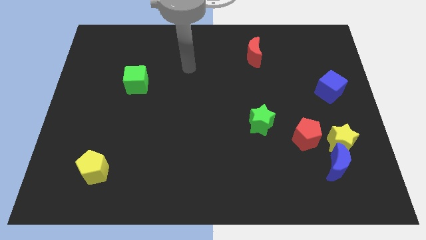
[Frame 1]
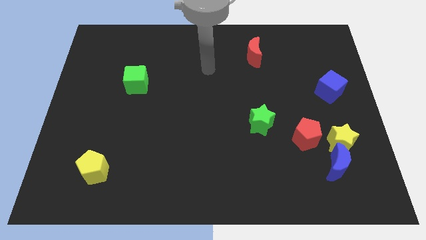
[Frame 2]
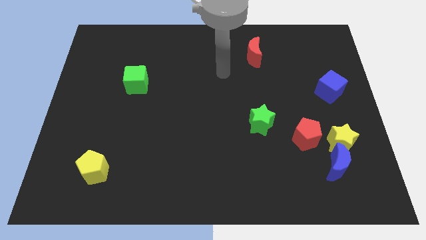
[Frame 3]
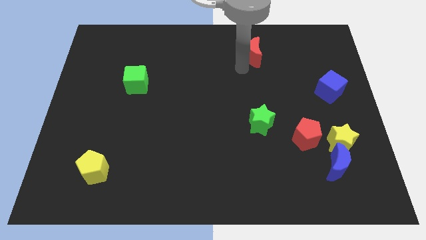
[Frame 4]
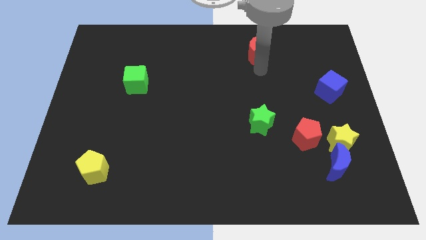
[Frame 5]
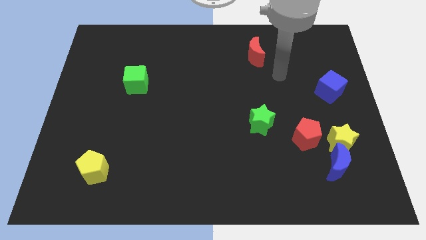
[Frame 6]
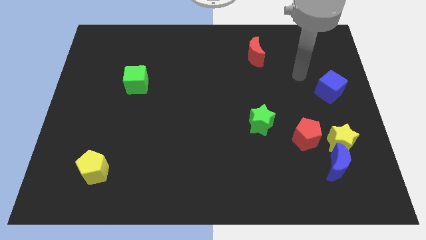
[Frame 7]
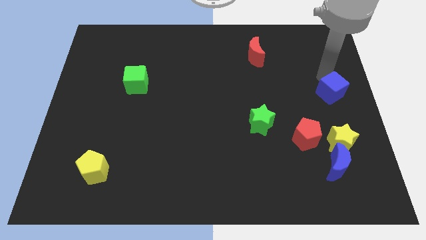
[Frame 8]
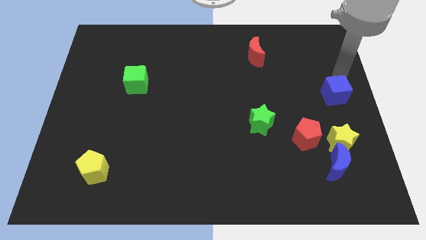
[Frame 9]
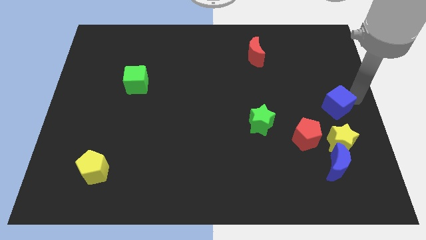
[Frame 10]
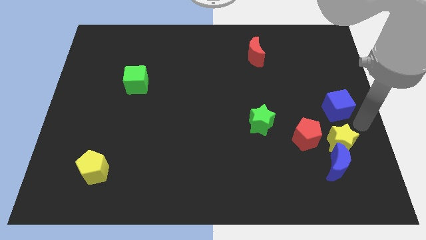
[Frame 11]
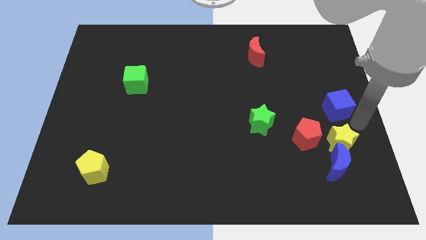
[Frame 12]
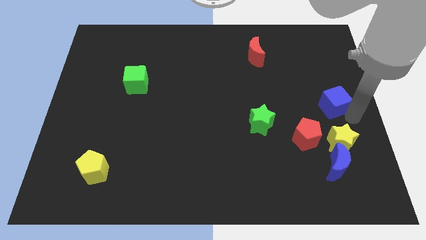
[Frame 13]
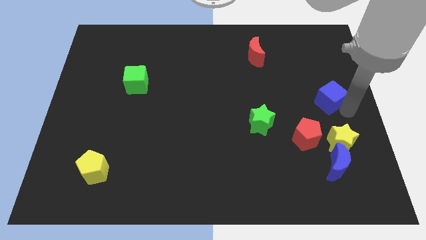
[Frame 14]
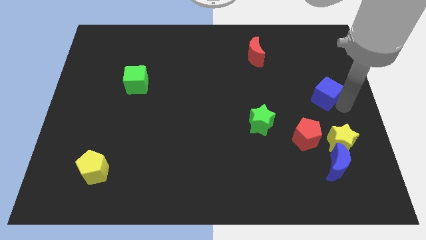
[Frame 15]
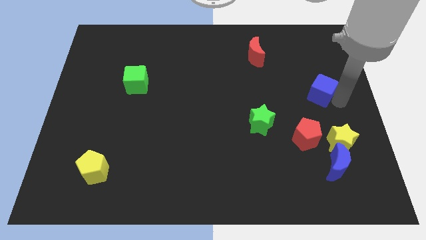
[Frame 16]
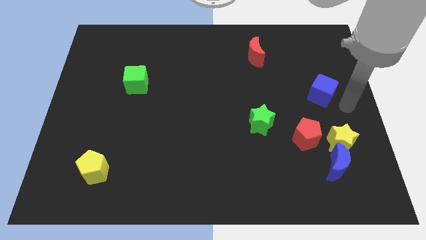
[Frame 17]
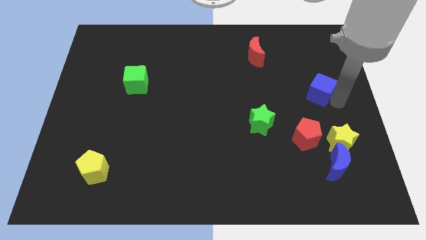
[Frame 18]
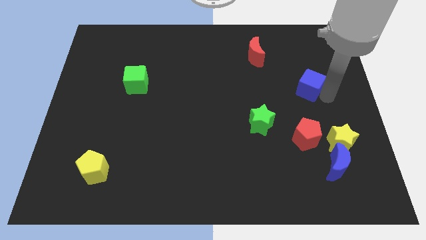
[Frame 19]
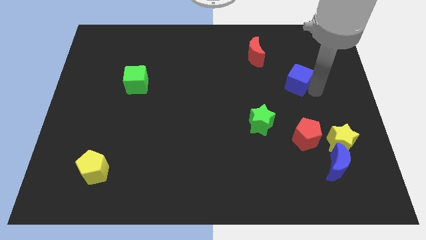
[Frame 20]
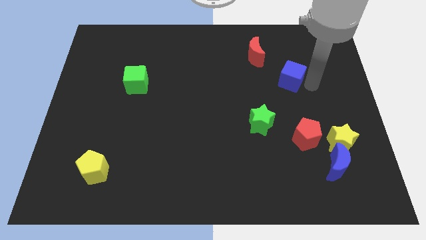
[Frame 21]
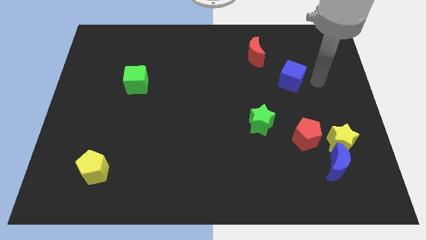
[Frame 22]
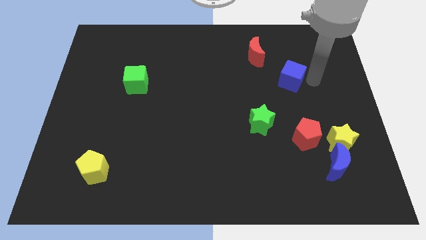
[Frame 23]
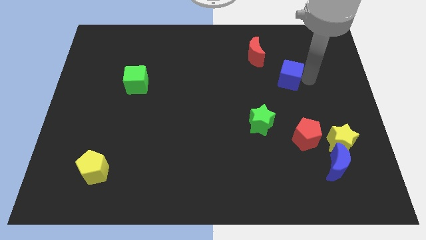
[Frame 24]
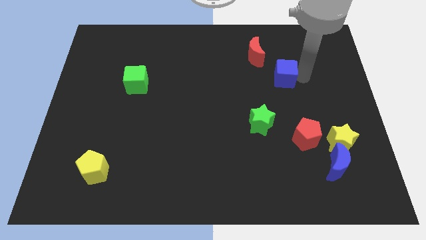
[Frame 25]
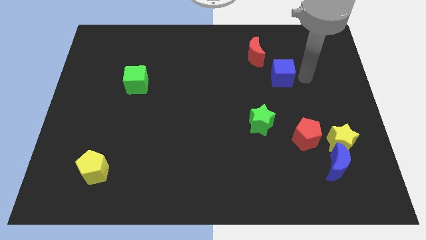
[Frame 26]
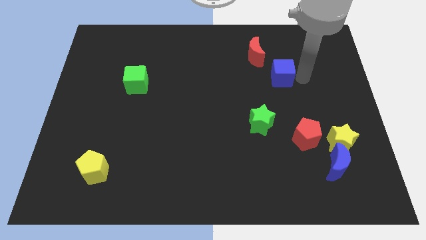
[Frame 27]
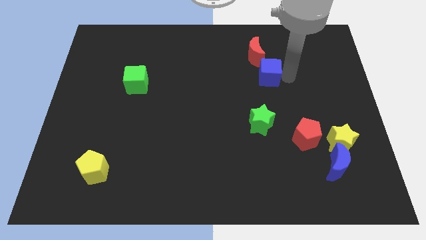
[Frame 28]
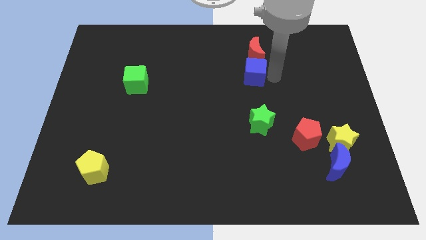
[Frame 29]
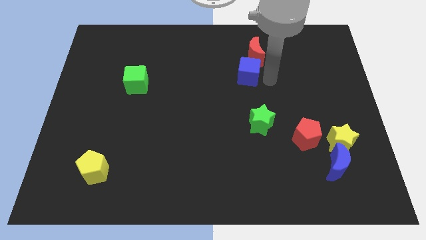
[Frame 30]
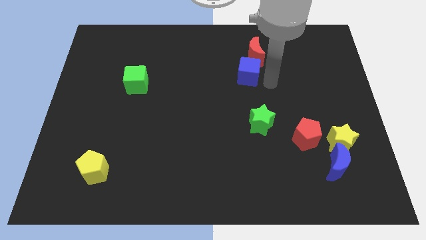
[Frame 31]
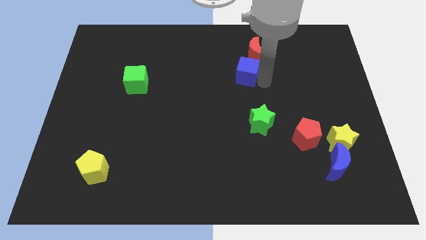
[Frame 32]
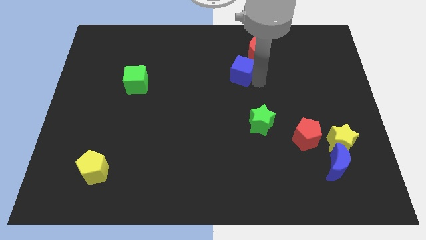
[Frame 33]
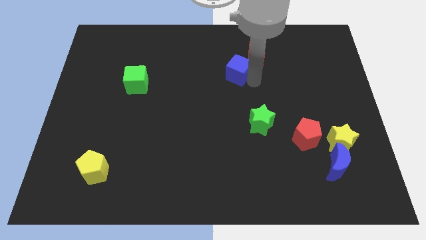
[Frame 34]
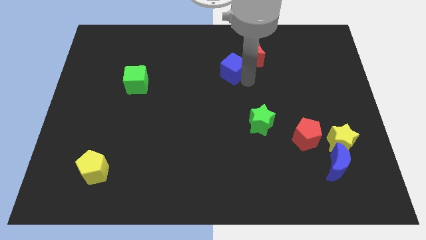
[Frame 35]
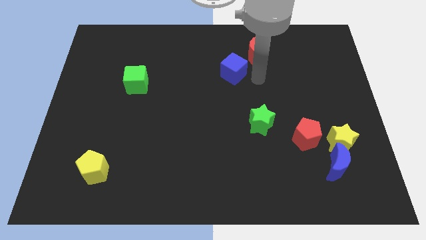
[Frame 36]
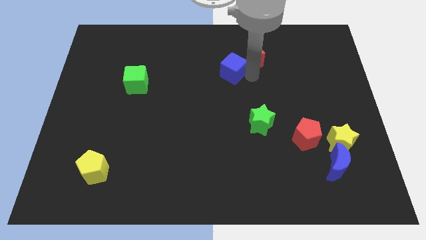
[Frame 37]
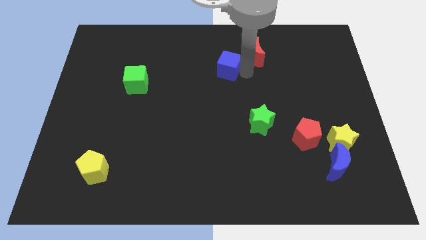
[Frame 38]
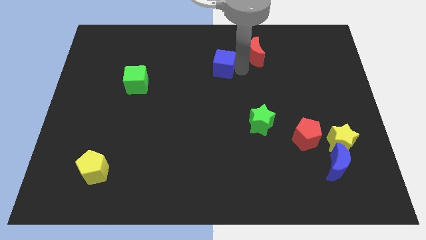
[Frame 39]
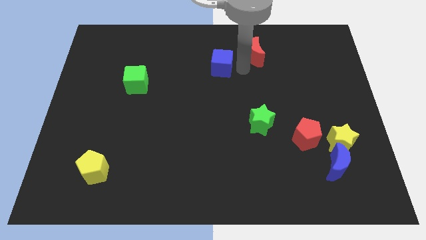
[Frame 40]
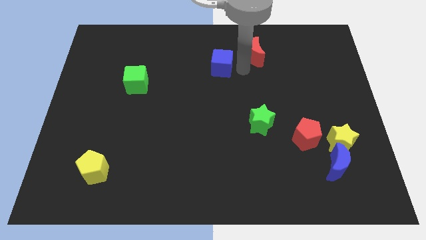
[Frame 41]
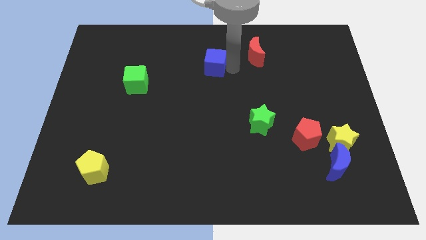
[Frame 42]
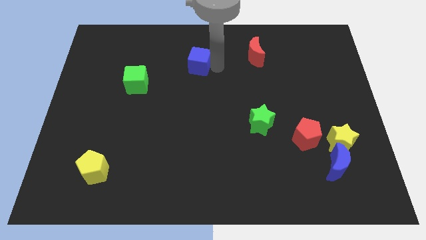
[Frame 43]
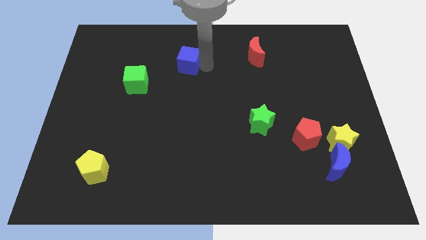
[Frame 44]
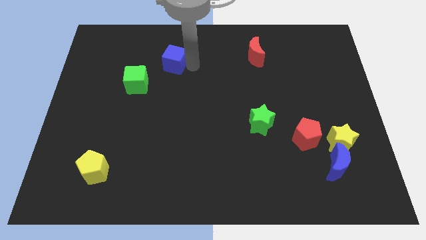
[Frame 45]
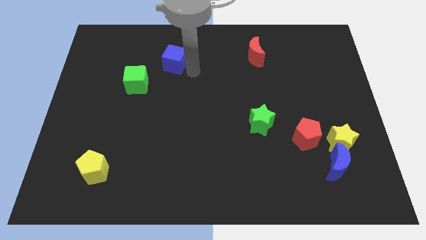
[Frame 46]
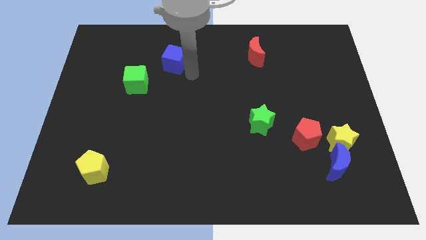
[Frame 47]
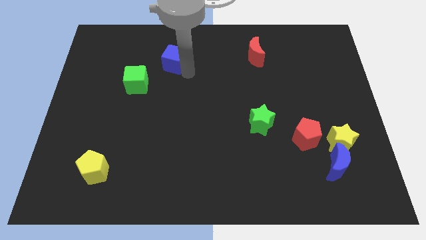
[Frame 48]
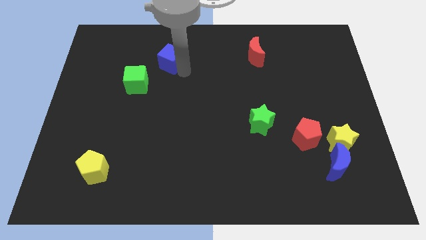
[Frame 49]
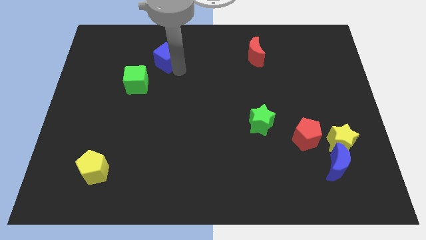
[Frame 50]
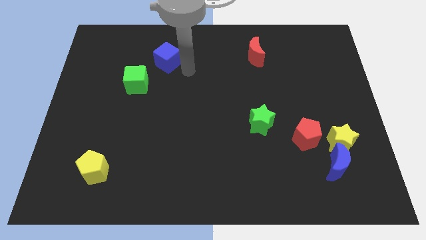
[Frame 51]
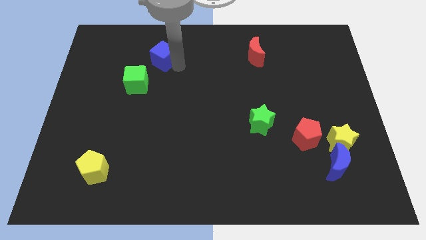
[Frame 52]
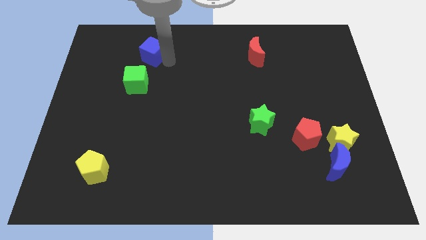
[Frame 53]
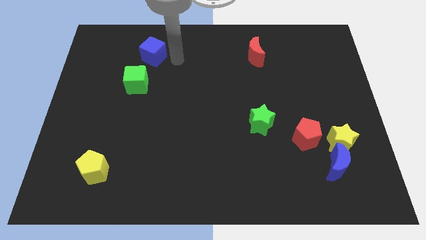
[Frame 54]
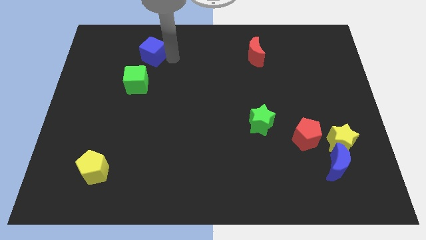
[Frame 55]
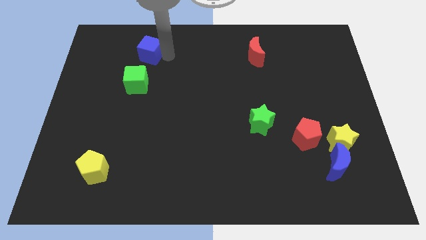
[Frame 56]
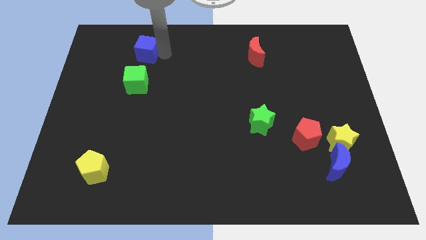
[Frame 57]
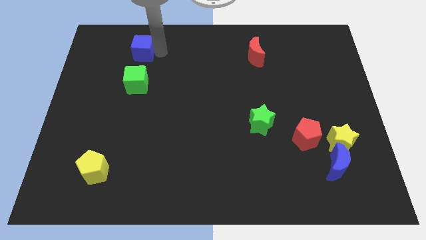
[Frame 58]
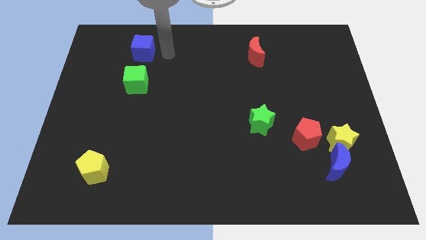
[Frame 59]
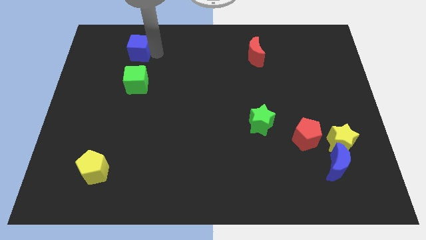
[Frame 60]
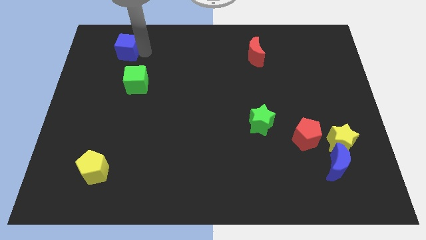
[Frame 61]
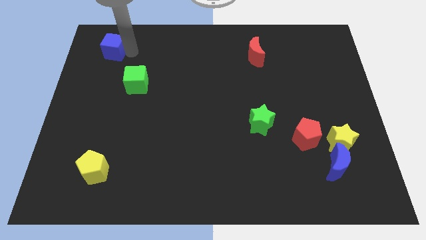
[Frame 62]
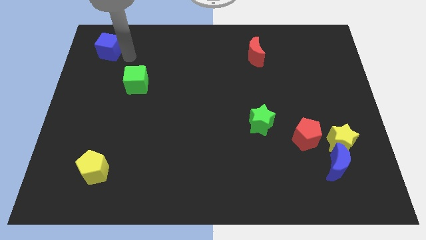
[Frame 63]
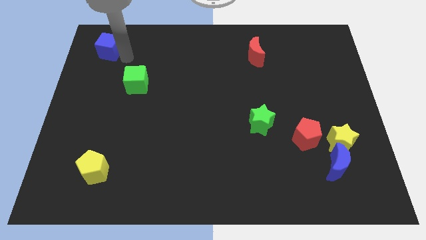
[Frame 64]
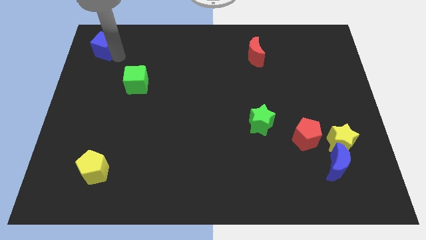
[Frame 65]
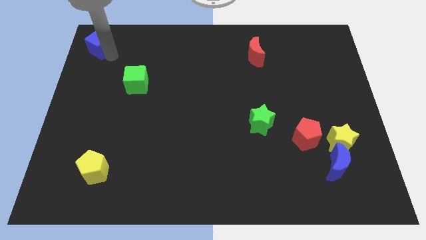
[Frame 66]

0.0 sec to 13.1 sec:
push the blue cube to the upper left corner
